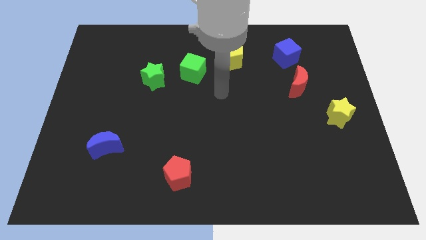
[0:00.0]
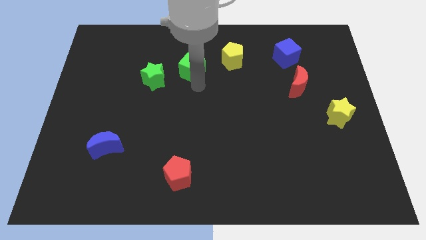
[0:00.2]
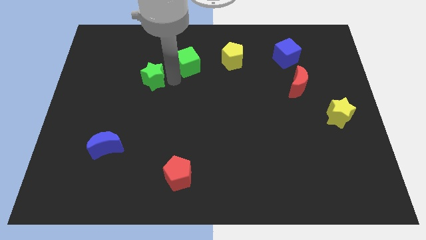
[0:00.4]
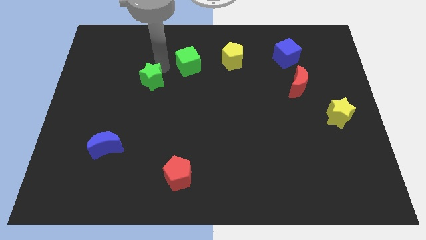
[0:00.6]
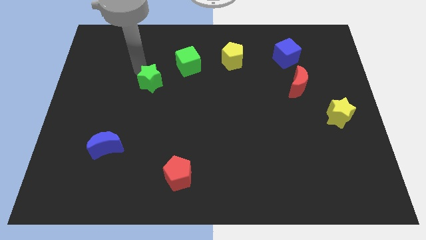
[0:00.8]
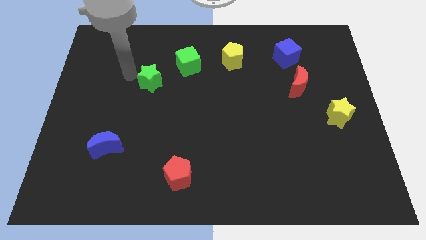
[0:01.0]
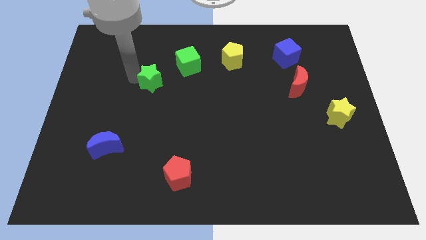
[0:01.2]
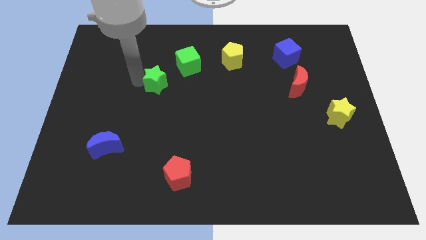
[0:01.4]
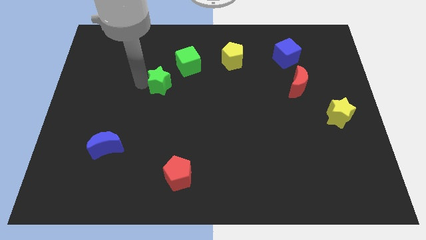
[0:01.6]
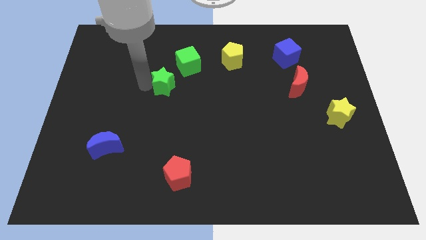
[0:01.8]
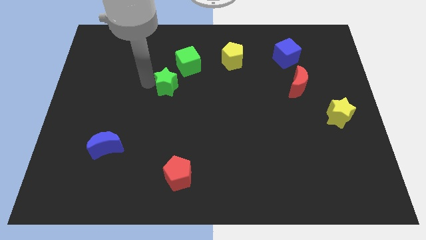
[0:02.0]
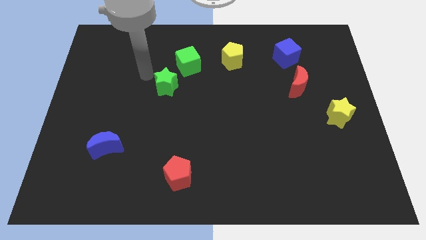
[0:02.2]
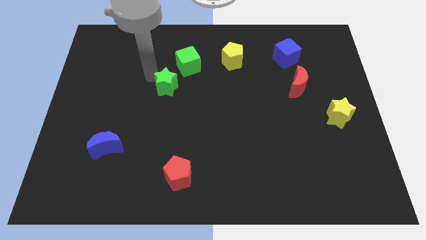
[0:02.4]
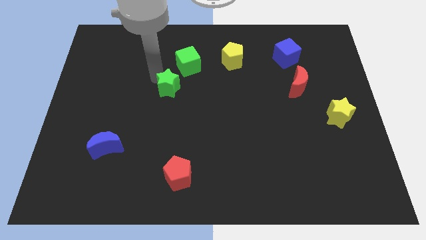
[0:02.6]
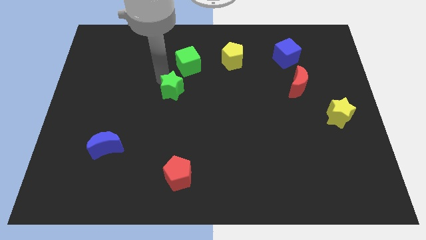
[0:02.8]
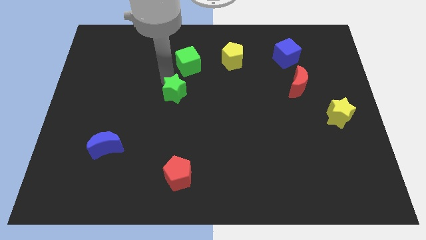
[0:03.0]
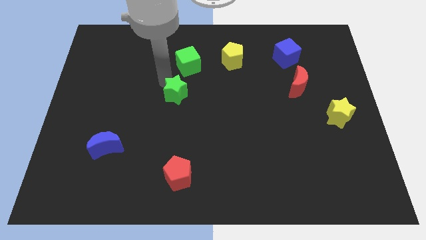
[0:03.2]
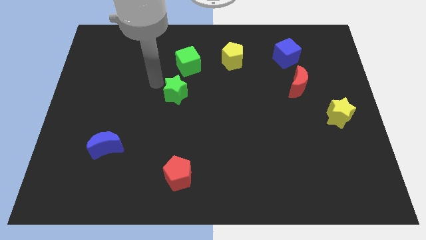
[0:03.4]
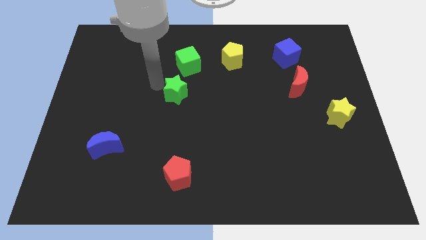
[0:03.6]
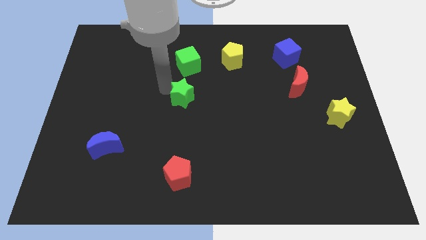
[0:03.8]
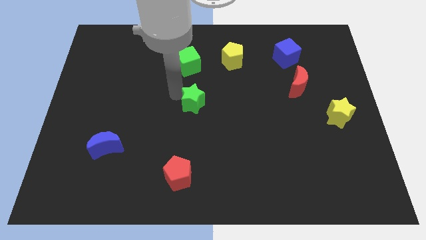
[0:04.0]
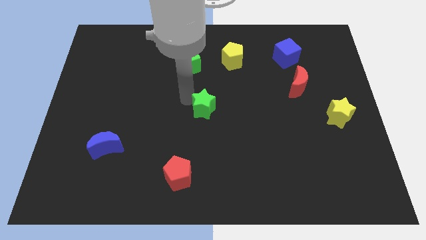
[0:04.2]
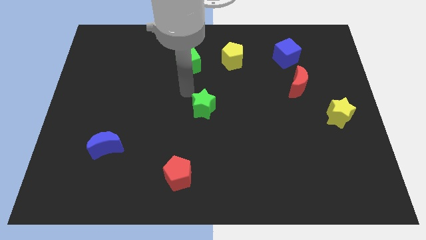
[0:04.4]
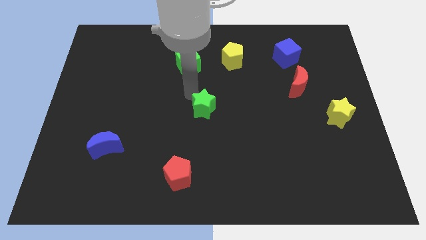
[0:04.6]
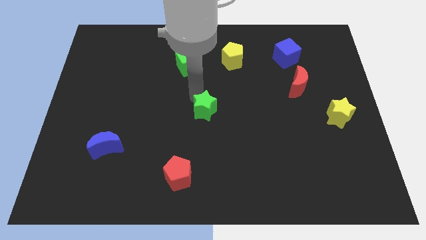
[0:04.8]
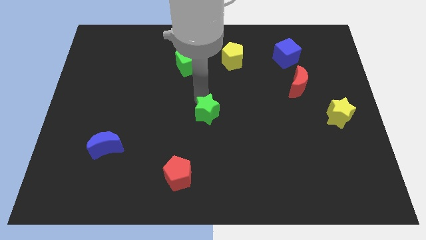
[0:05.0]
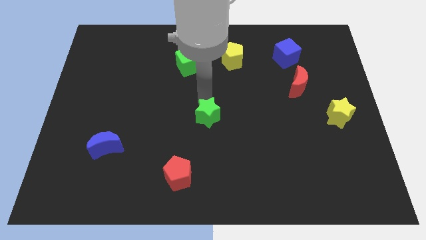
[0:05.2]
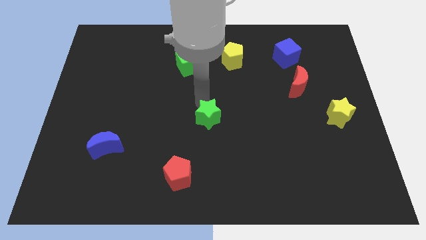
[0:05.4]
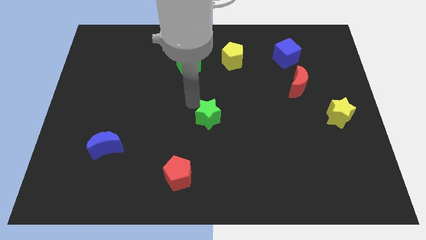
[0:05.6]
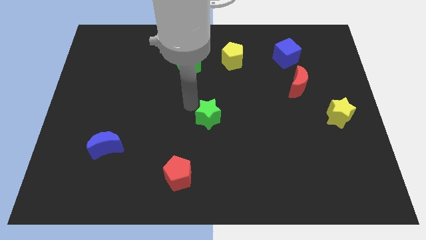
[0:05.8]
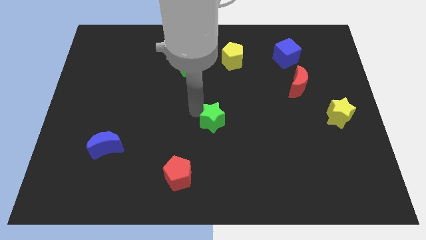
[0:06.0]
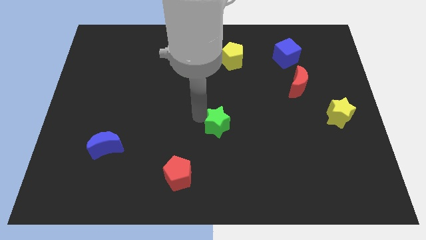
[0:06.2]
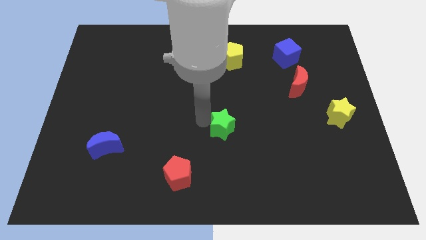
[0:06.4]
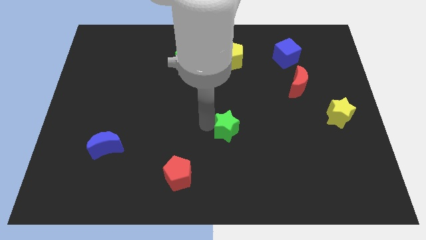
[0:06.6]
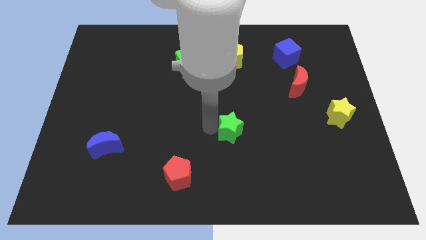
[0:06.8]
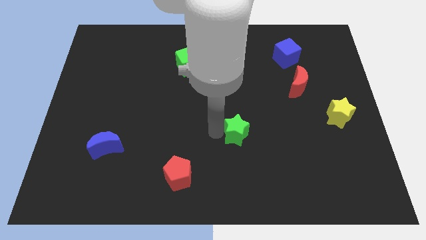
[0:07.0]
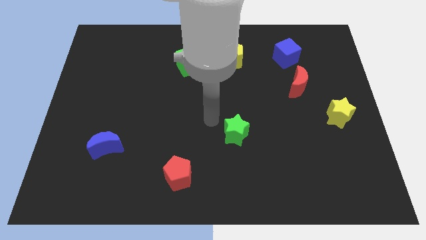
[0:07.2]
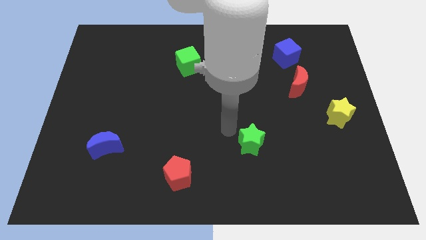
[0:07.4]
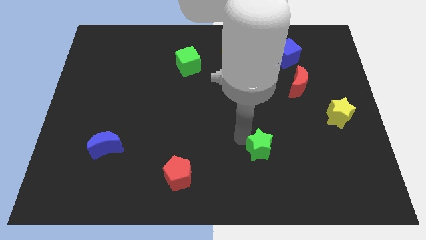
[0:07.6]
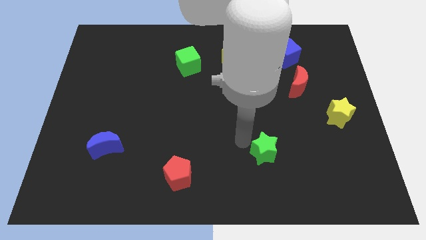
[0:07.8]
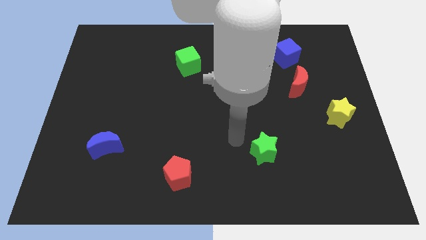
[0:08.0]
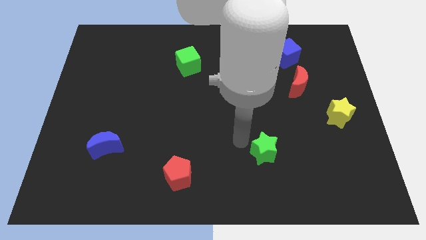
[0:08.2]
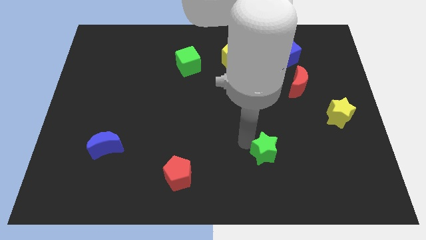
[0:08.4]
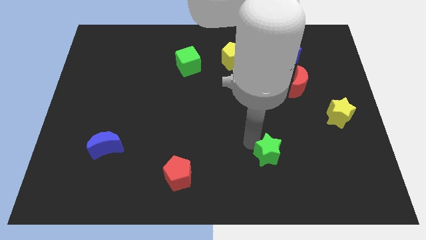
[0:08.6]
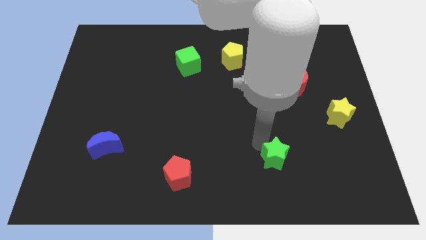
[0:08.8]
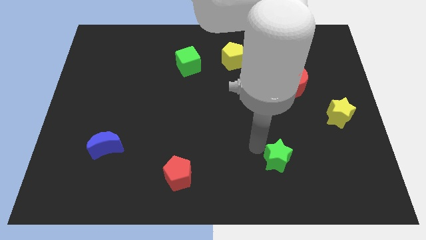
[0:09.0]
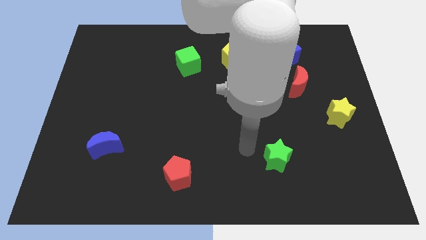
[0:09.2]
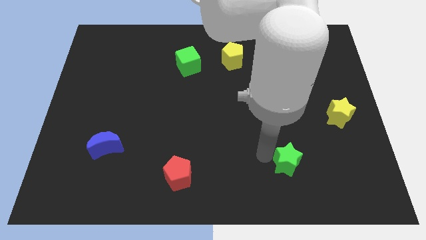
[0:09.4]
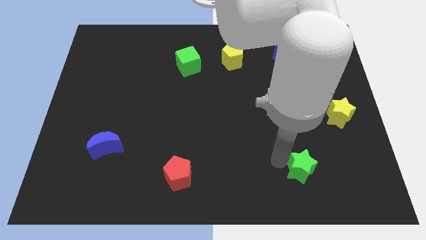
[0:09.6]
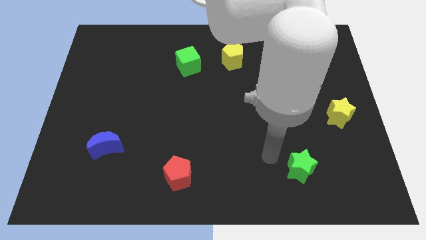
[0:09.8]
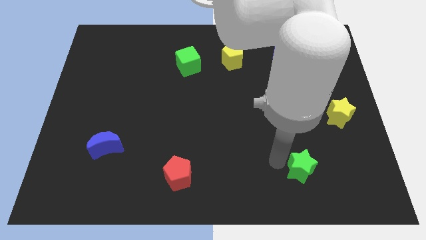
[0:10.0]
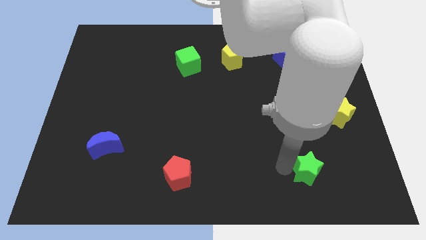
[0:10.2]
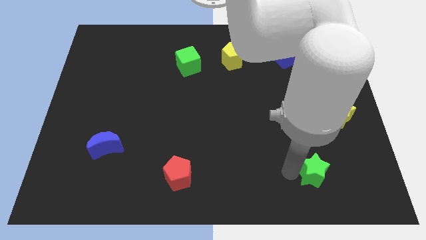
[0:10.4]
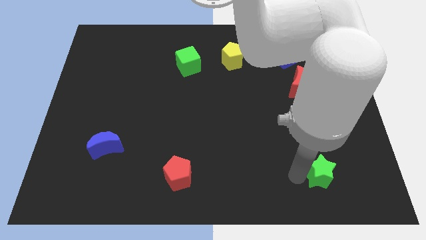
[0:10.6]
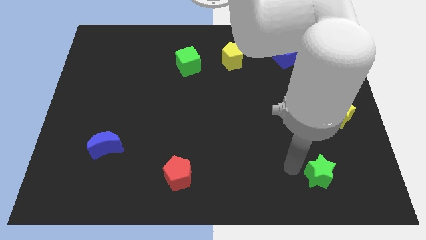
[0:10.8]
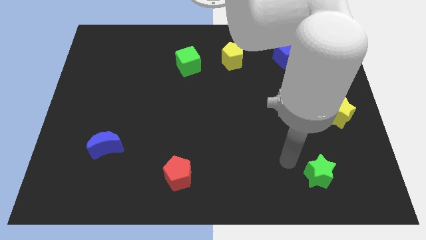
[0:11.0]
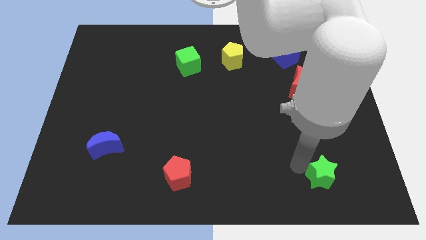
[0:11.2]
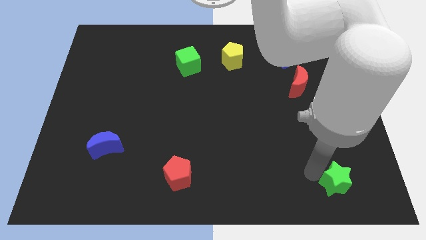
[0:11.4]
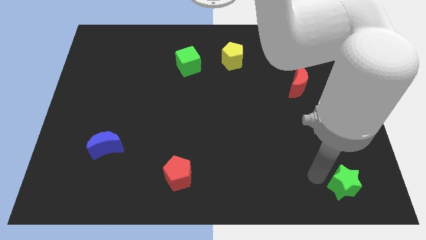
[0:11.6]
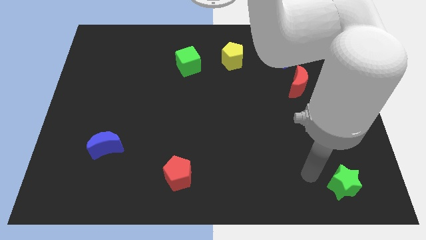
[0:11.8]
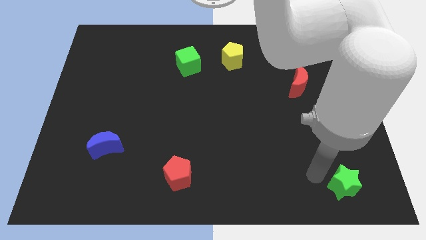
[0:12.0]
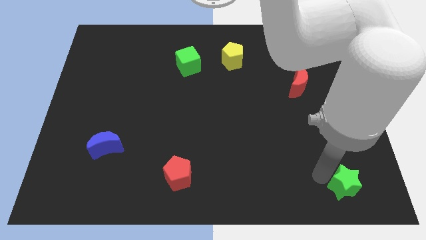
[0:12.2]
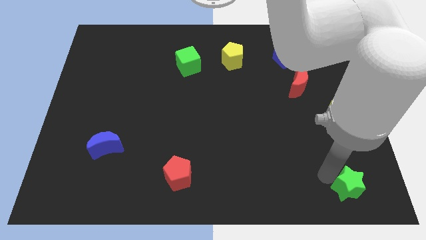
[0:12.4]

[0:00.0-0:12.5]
slide the green star to the lower right corner
